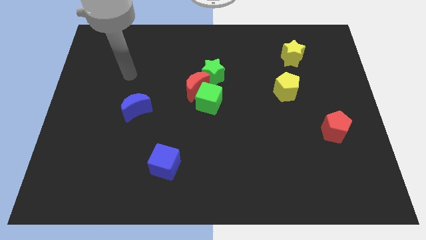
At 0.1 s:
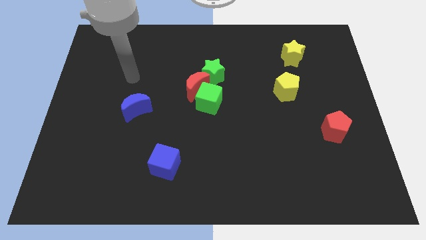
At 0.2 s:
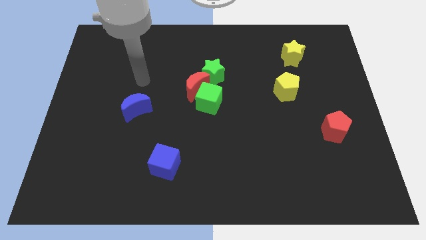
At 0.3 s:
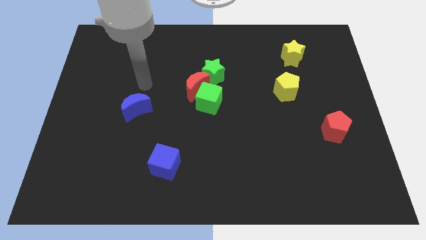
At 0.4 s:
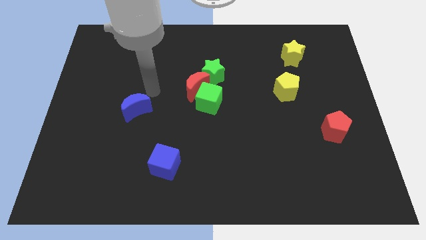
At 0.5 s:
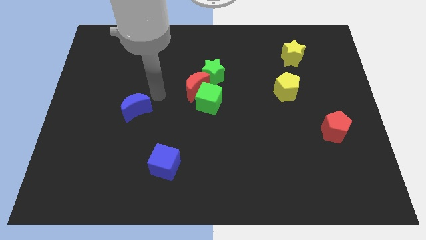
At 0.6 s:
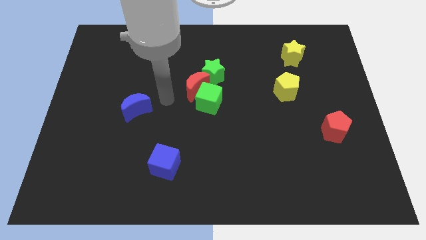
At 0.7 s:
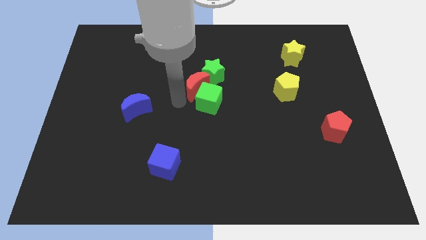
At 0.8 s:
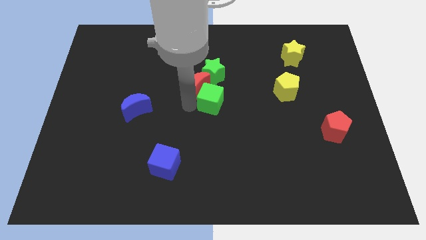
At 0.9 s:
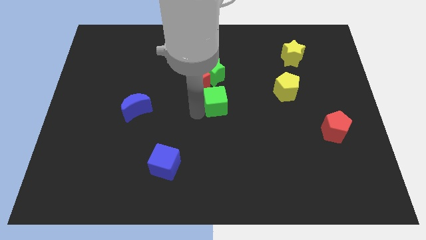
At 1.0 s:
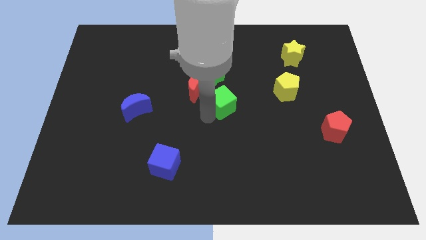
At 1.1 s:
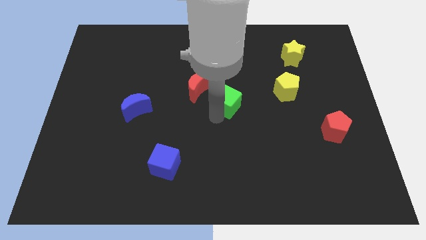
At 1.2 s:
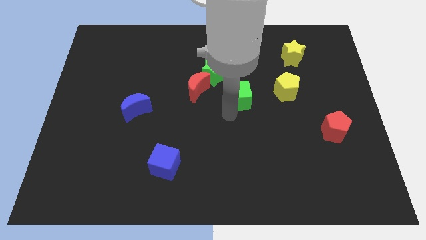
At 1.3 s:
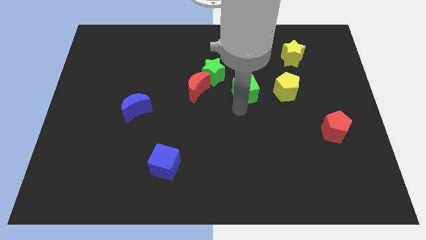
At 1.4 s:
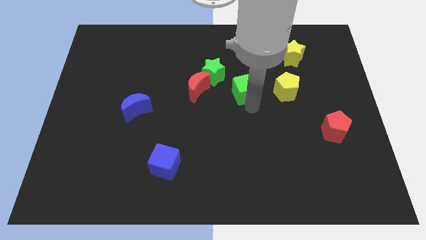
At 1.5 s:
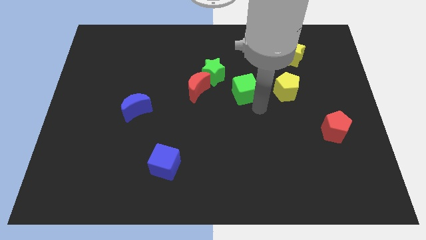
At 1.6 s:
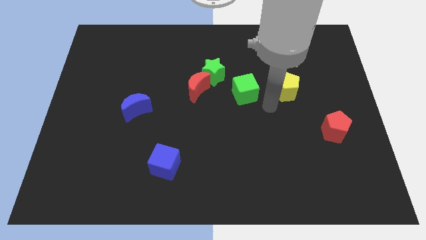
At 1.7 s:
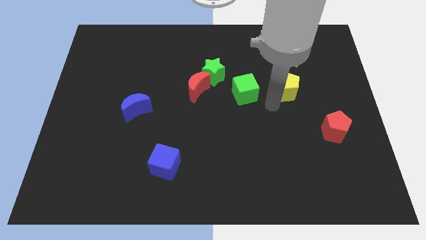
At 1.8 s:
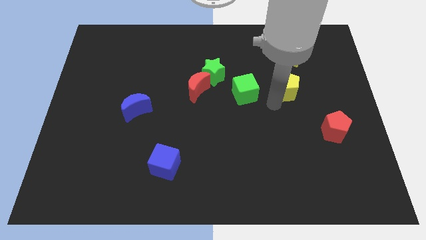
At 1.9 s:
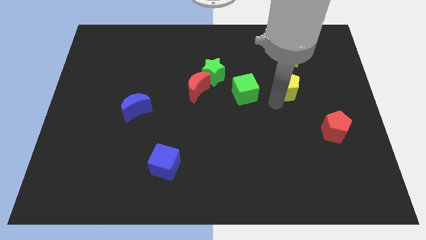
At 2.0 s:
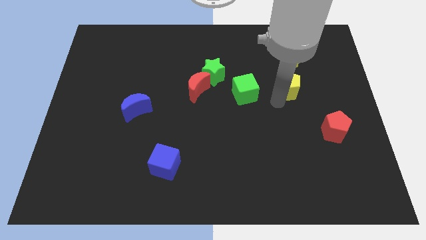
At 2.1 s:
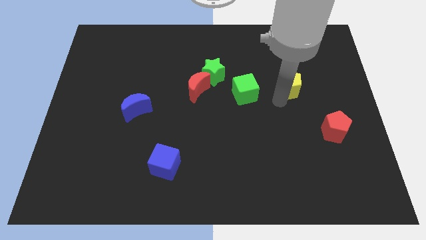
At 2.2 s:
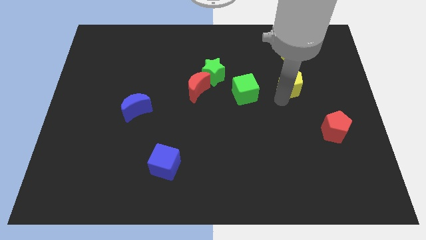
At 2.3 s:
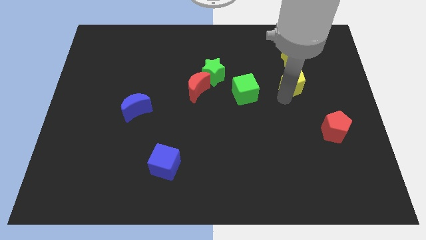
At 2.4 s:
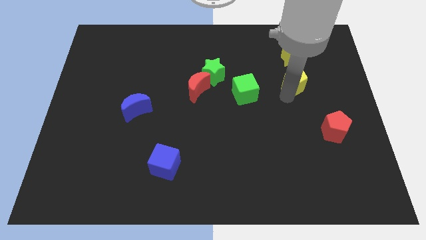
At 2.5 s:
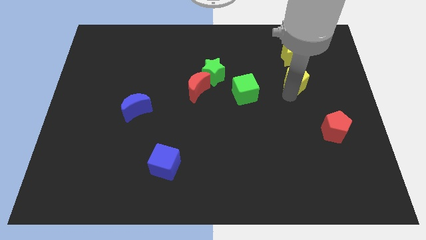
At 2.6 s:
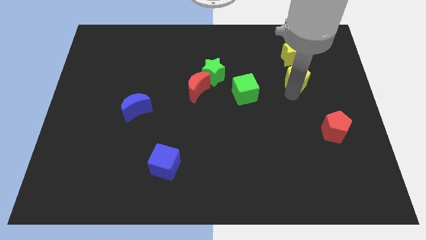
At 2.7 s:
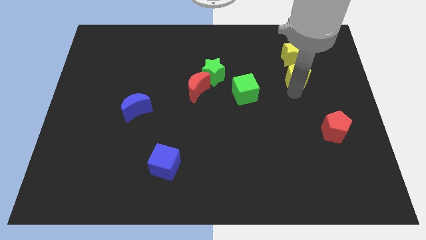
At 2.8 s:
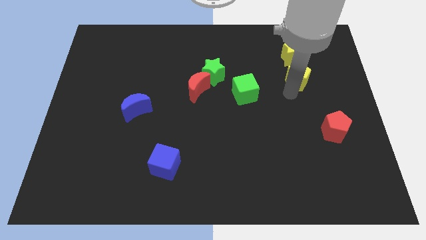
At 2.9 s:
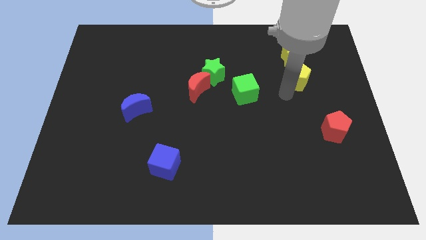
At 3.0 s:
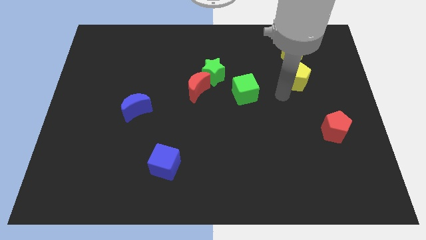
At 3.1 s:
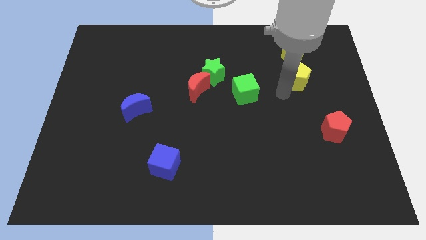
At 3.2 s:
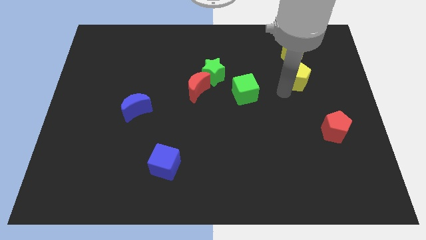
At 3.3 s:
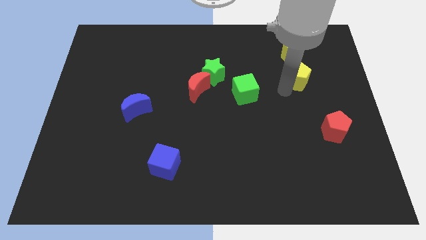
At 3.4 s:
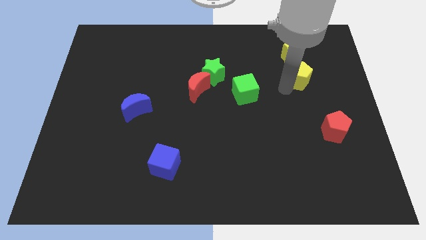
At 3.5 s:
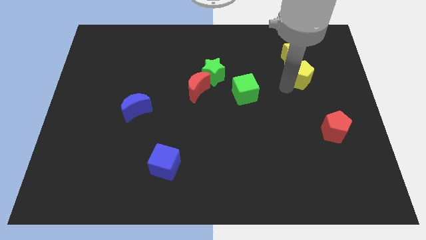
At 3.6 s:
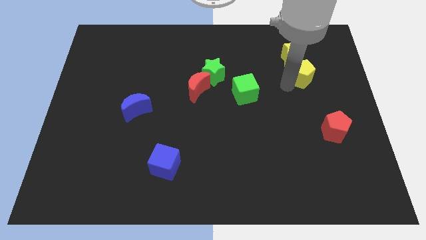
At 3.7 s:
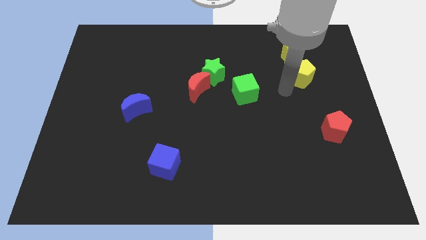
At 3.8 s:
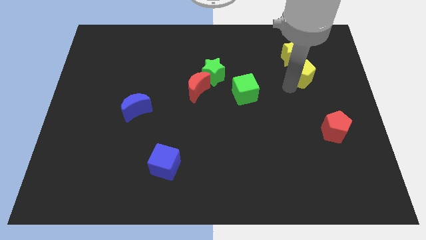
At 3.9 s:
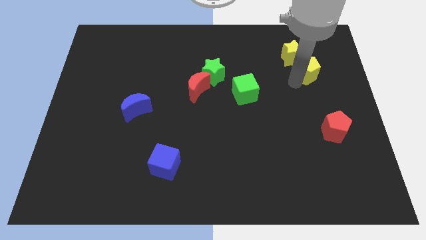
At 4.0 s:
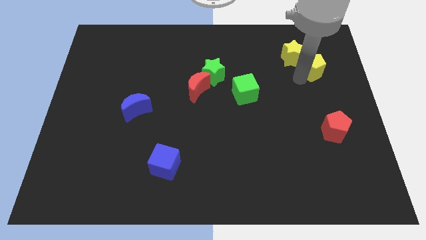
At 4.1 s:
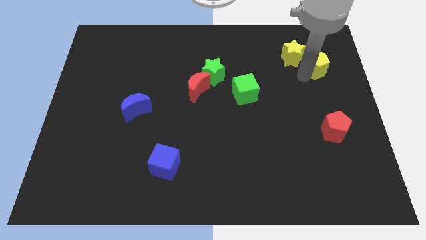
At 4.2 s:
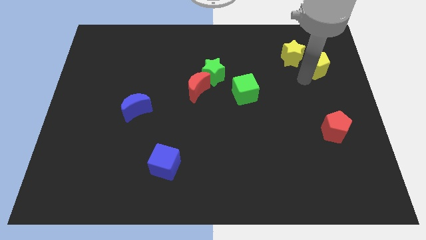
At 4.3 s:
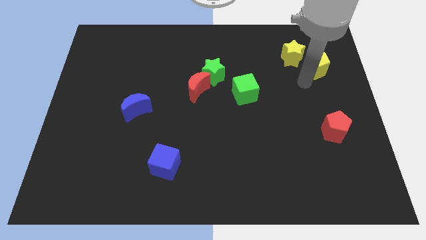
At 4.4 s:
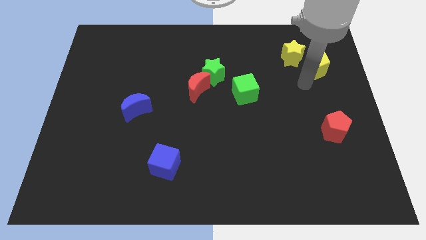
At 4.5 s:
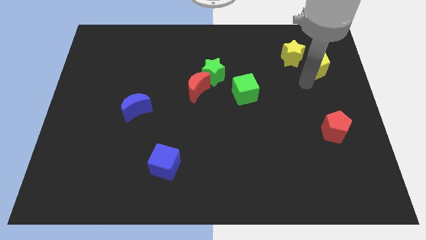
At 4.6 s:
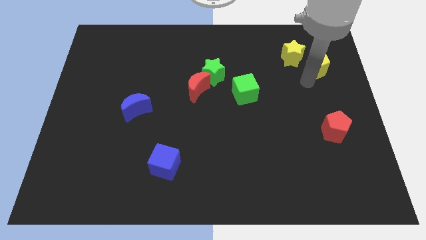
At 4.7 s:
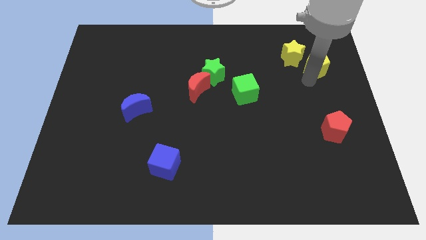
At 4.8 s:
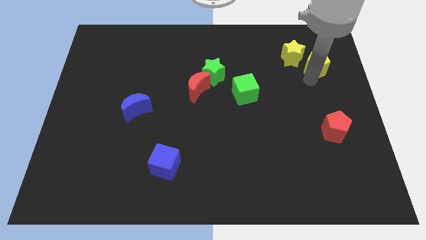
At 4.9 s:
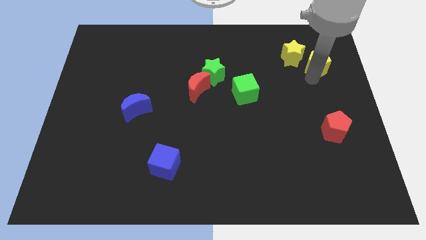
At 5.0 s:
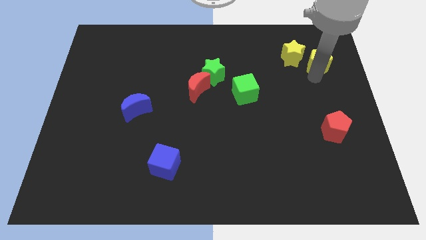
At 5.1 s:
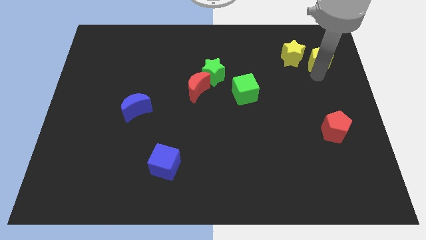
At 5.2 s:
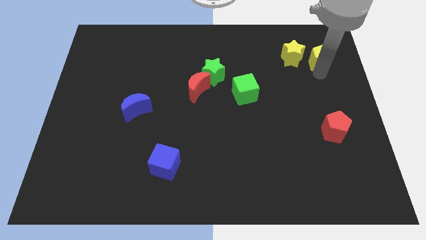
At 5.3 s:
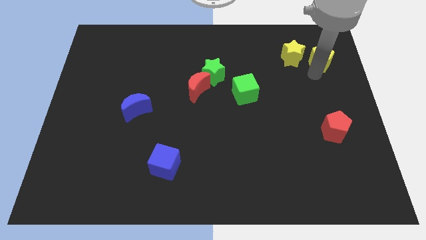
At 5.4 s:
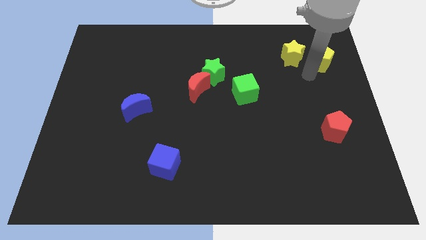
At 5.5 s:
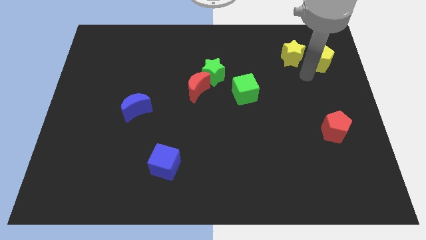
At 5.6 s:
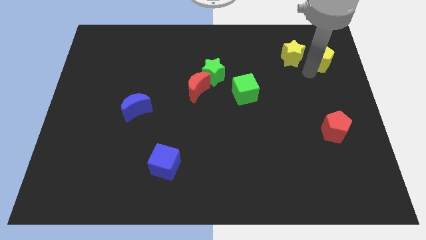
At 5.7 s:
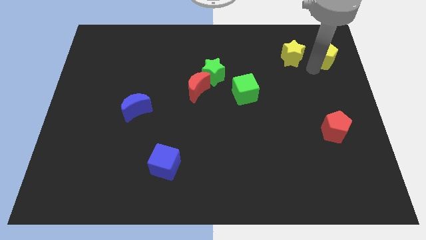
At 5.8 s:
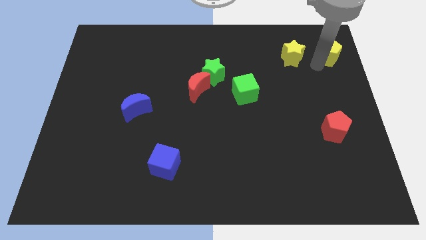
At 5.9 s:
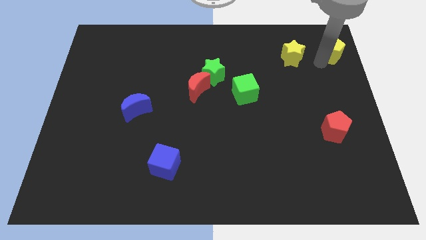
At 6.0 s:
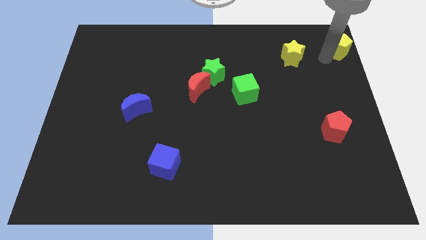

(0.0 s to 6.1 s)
put the yellow pentagon to the top right

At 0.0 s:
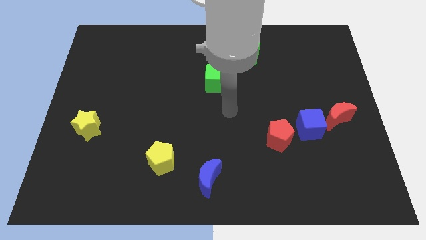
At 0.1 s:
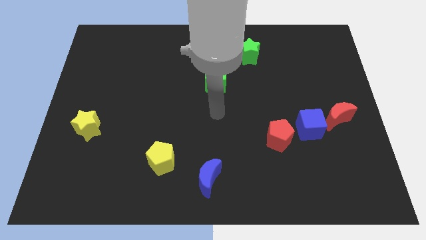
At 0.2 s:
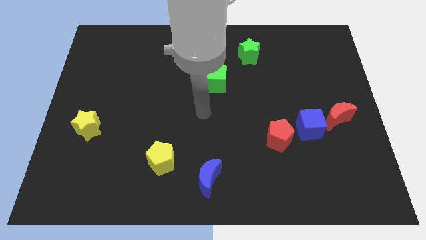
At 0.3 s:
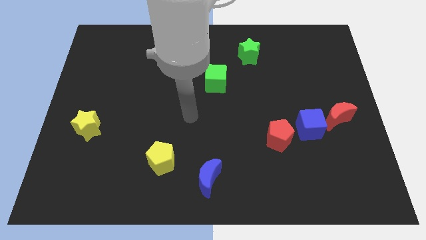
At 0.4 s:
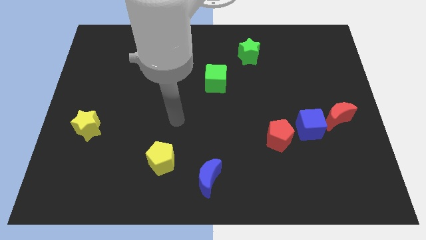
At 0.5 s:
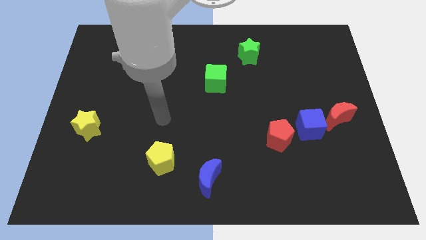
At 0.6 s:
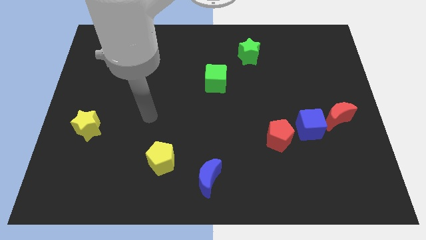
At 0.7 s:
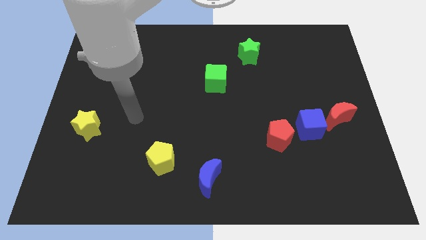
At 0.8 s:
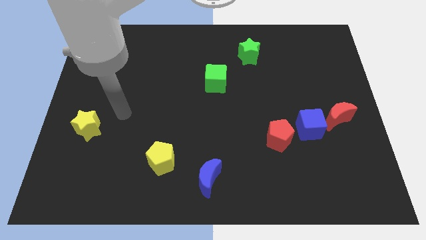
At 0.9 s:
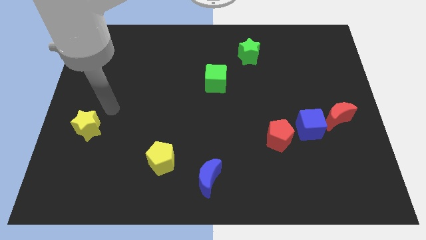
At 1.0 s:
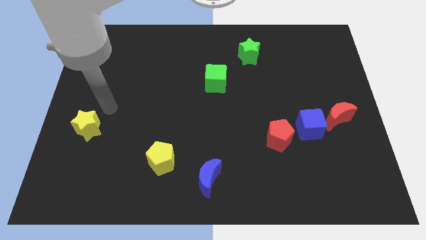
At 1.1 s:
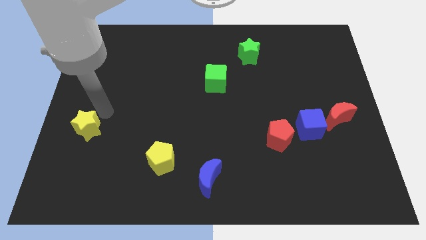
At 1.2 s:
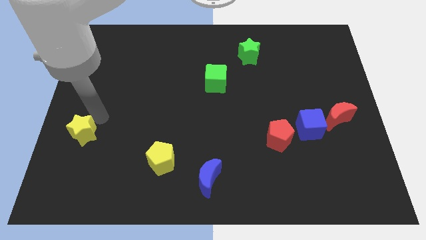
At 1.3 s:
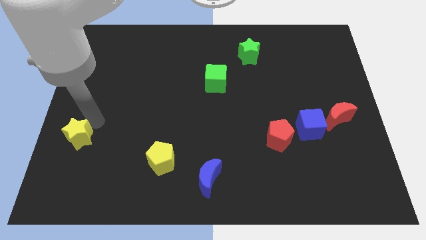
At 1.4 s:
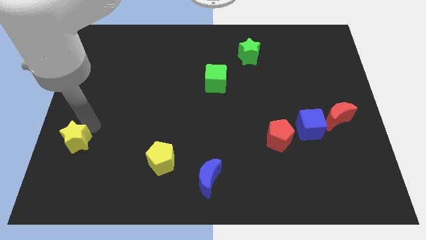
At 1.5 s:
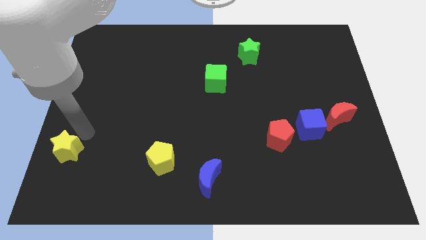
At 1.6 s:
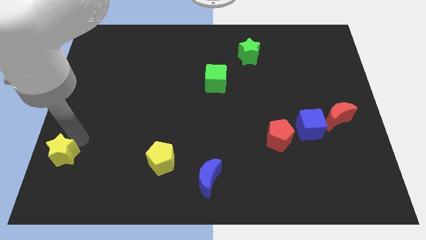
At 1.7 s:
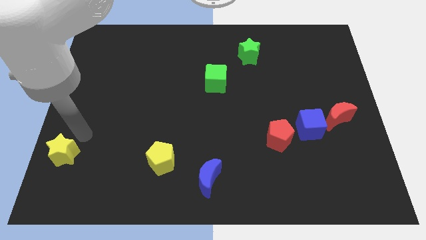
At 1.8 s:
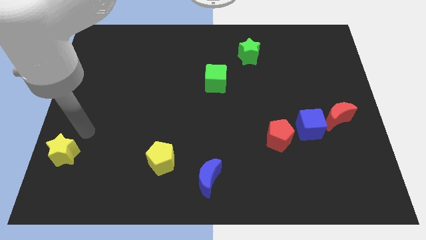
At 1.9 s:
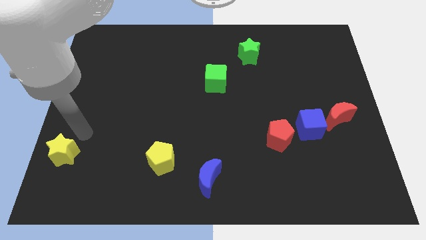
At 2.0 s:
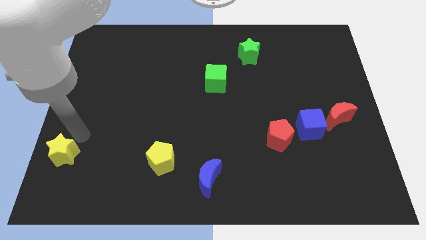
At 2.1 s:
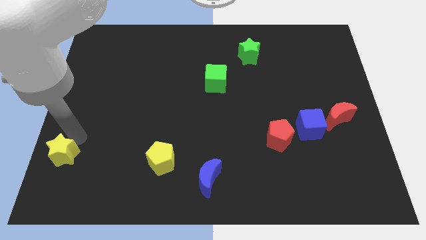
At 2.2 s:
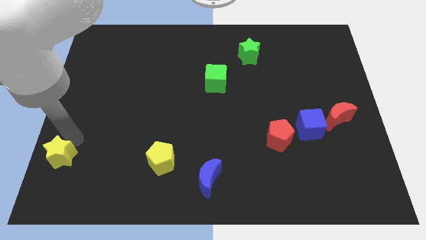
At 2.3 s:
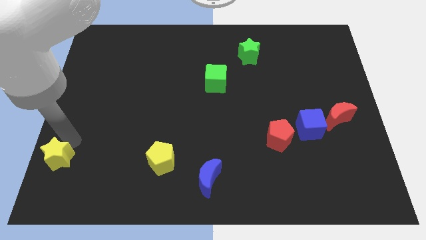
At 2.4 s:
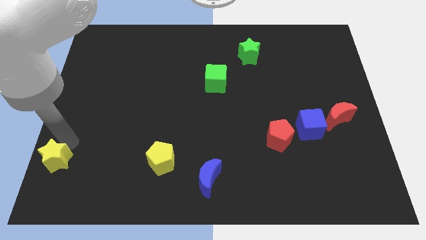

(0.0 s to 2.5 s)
push the yellow star to the bottom left of the board
